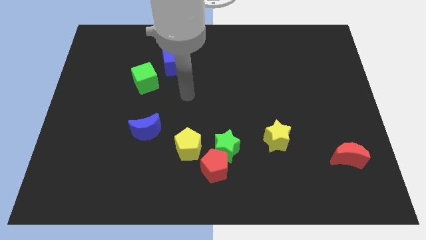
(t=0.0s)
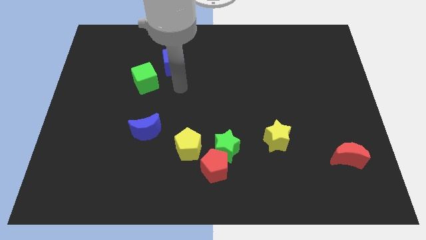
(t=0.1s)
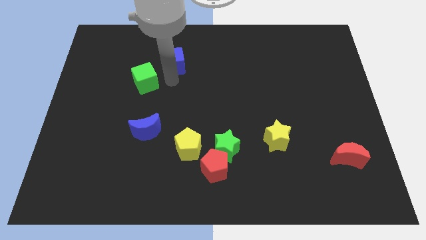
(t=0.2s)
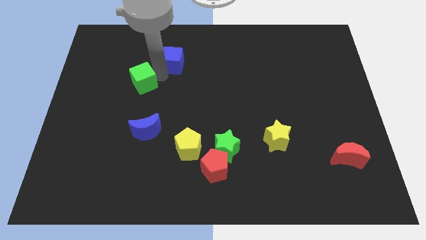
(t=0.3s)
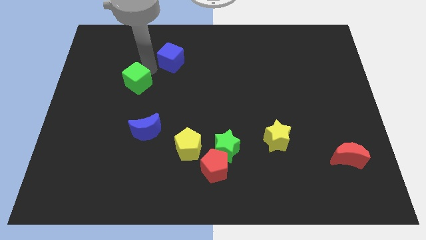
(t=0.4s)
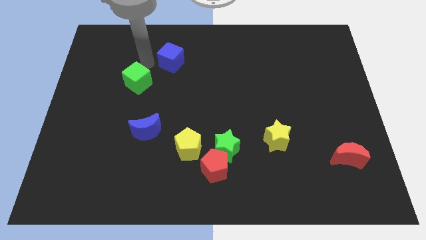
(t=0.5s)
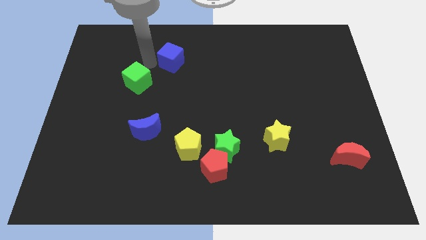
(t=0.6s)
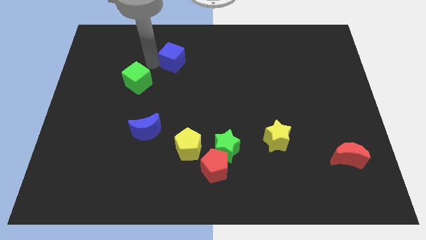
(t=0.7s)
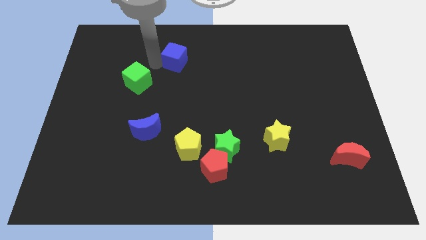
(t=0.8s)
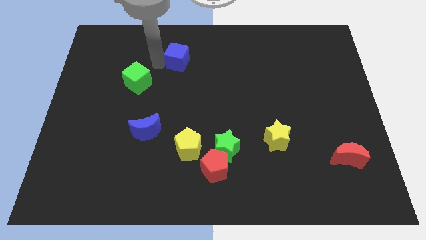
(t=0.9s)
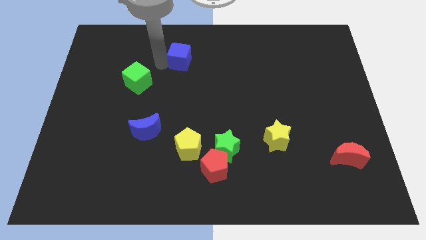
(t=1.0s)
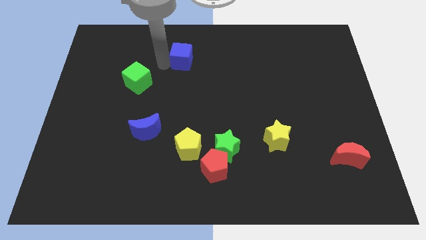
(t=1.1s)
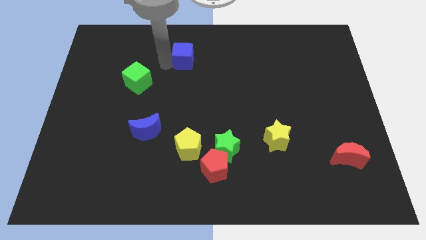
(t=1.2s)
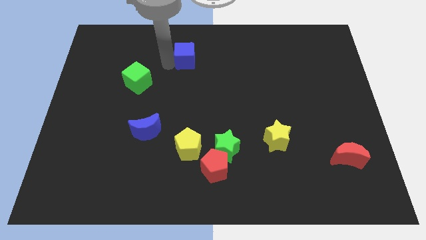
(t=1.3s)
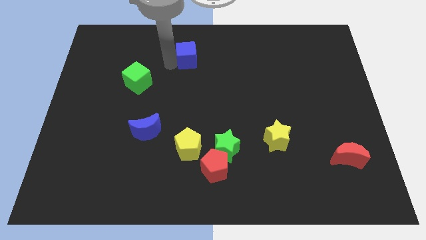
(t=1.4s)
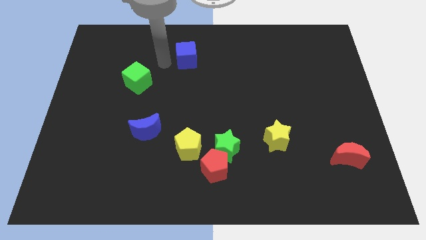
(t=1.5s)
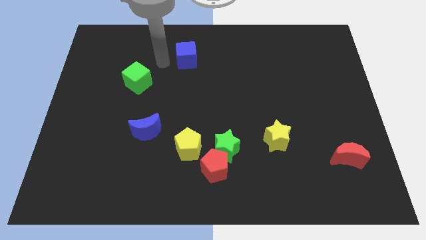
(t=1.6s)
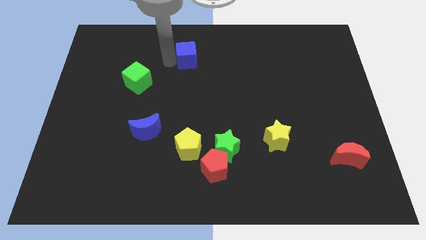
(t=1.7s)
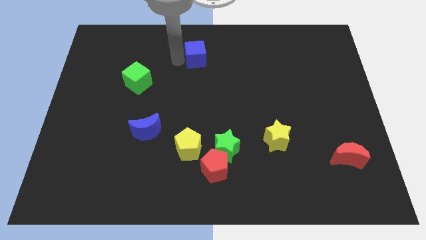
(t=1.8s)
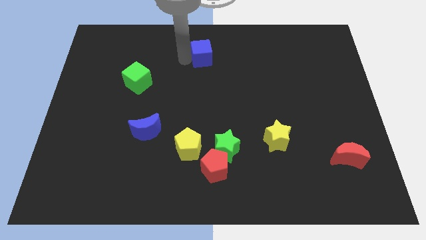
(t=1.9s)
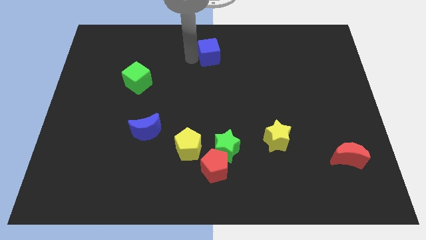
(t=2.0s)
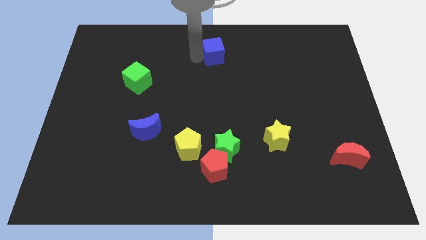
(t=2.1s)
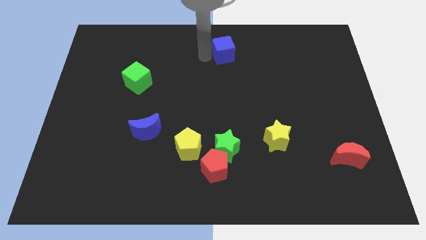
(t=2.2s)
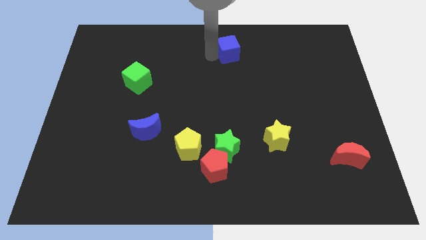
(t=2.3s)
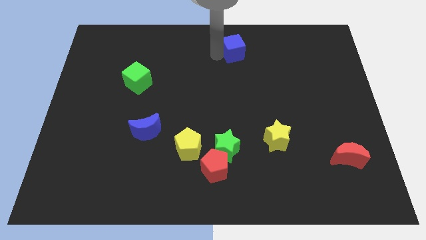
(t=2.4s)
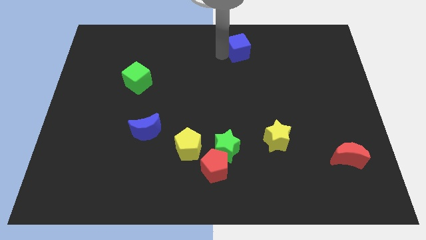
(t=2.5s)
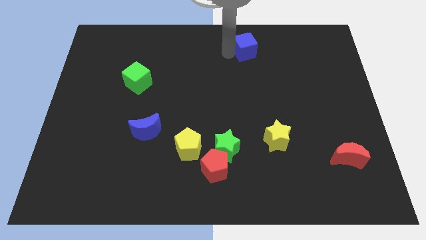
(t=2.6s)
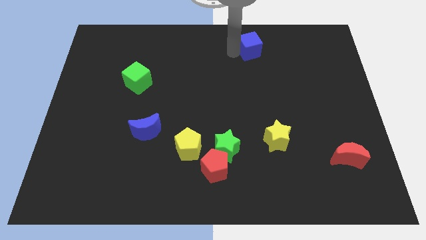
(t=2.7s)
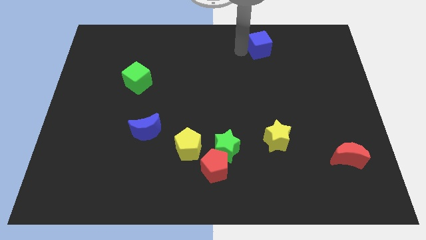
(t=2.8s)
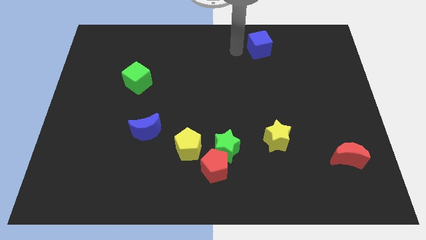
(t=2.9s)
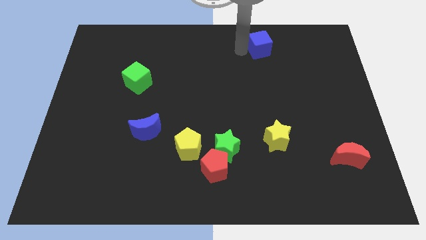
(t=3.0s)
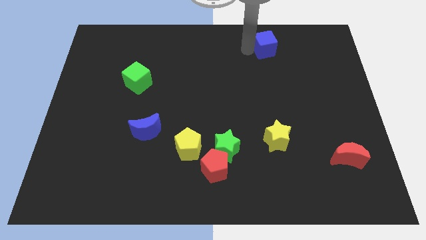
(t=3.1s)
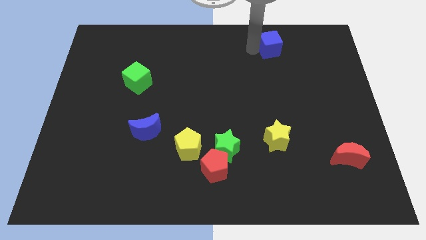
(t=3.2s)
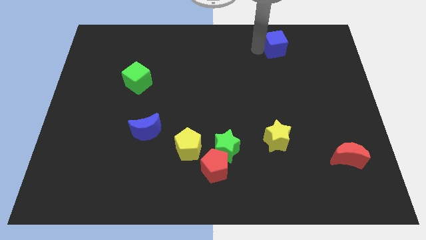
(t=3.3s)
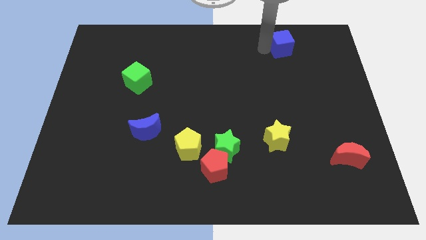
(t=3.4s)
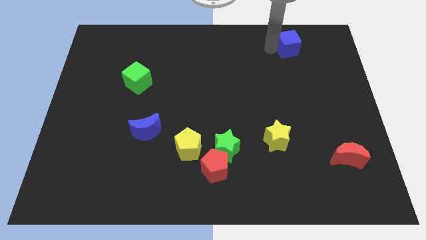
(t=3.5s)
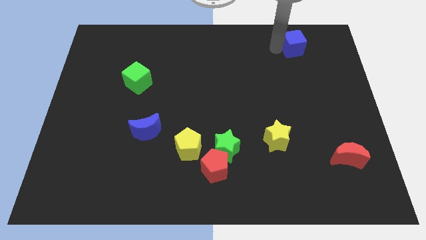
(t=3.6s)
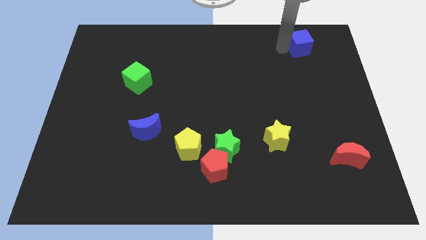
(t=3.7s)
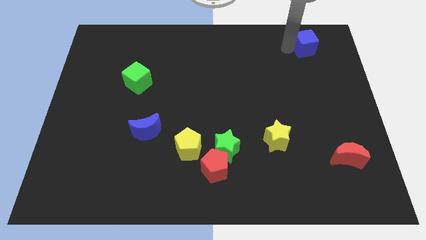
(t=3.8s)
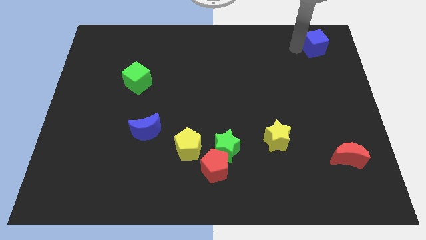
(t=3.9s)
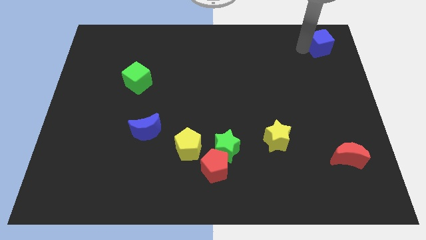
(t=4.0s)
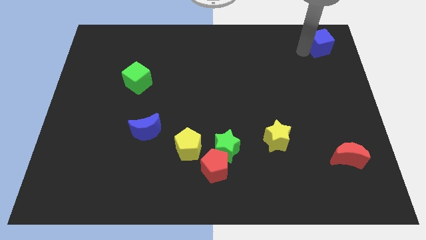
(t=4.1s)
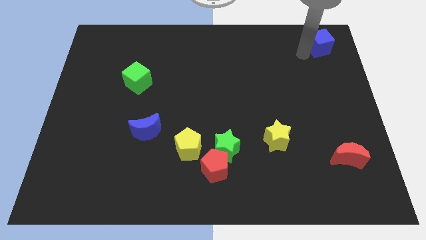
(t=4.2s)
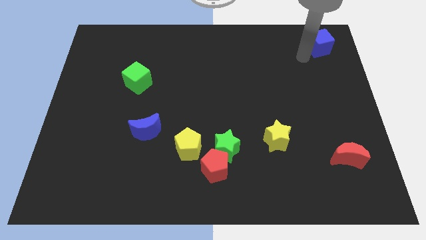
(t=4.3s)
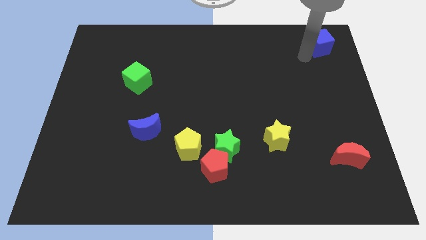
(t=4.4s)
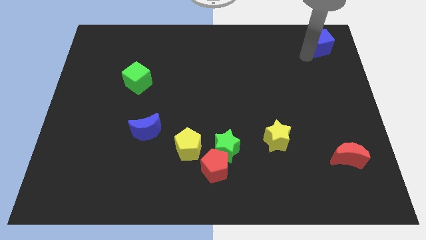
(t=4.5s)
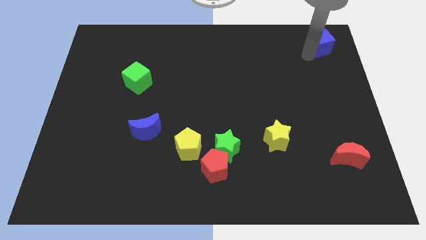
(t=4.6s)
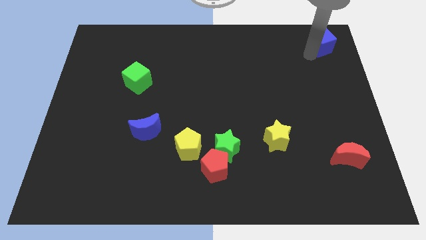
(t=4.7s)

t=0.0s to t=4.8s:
slide the blue cube to the top right of the board

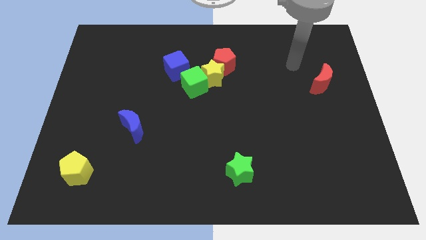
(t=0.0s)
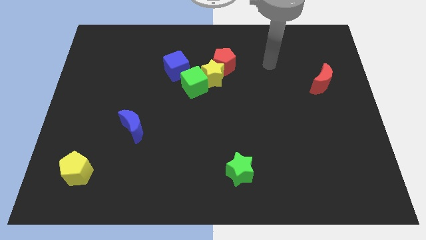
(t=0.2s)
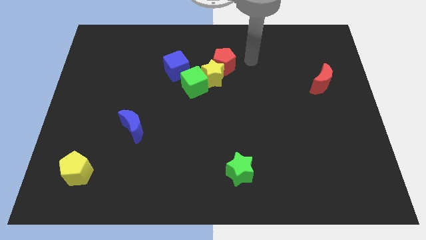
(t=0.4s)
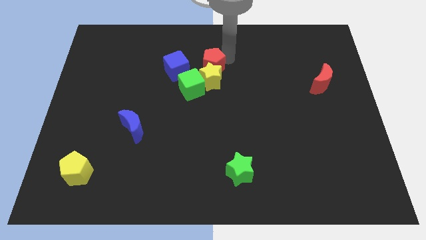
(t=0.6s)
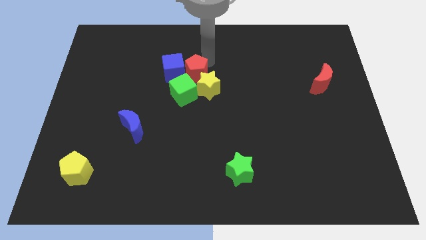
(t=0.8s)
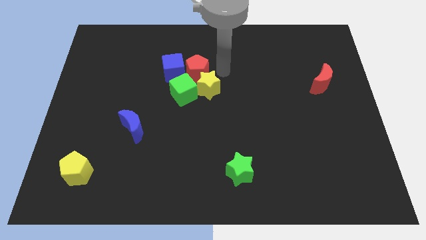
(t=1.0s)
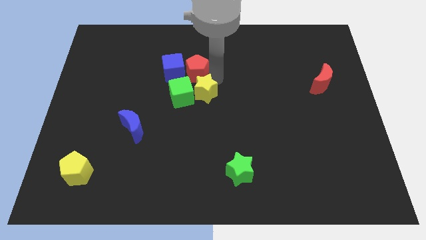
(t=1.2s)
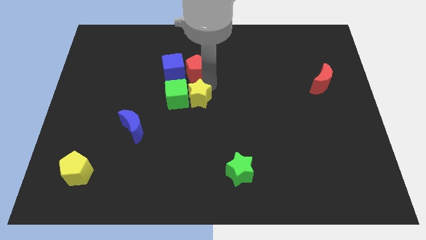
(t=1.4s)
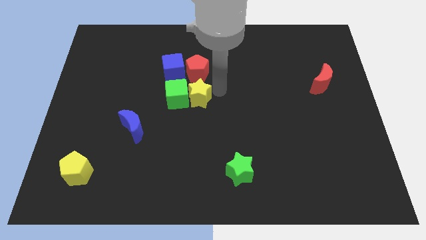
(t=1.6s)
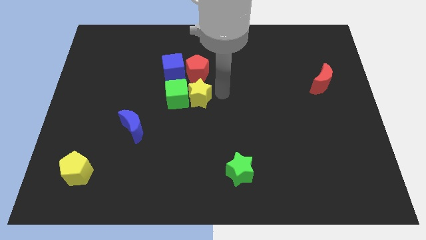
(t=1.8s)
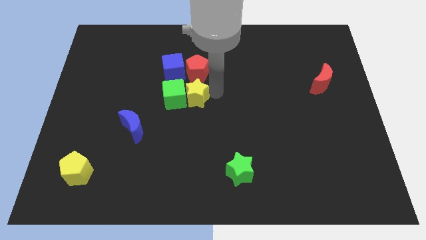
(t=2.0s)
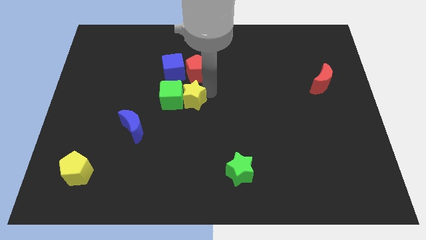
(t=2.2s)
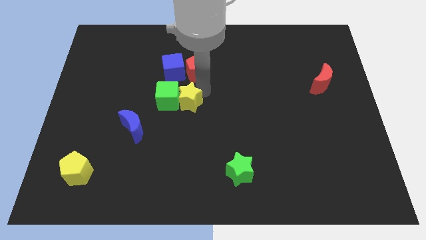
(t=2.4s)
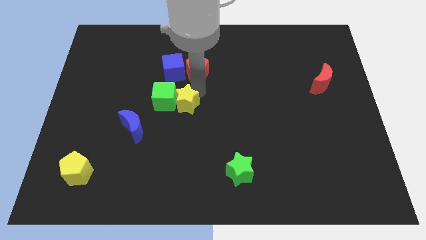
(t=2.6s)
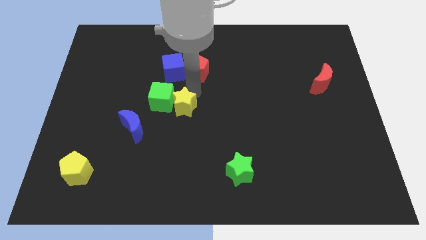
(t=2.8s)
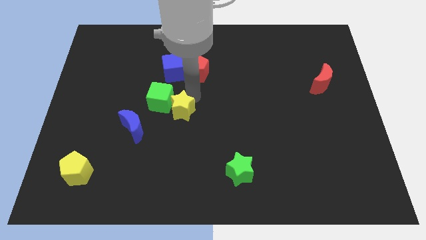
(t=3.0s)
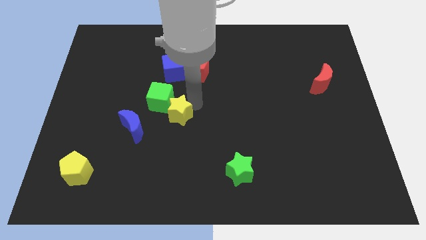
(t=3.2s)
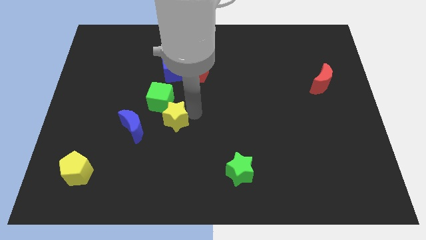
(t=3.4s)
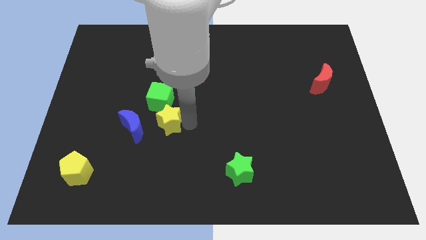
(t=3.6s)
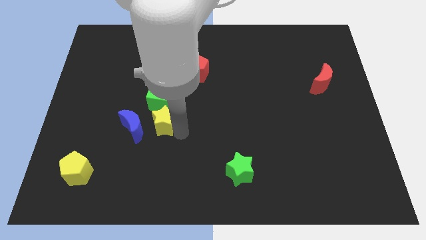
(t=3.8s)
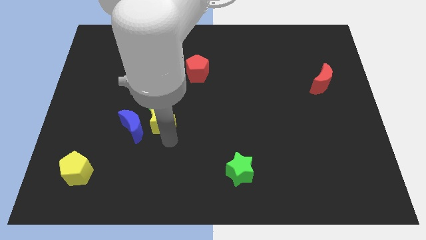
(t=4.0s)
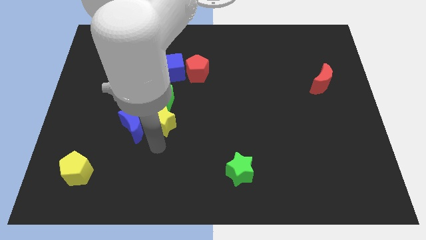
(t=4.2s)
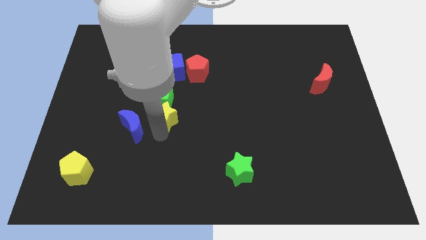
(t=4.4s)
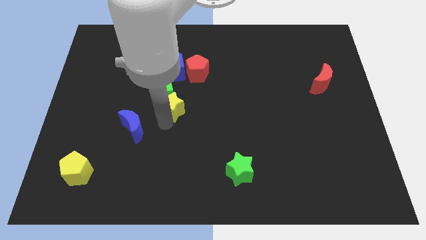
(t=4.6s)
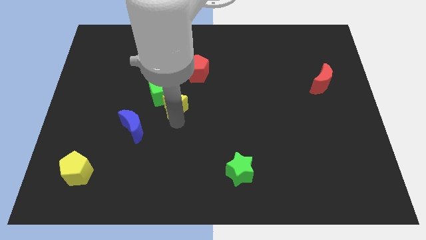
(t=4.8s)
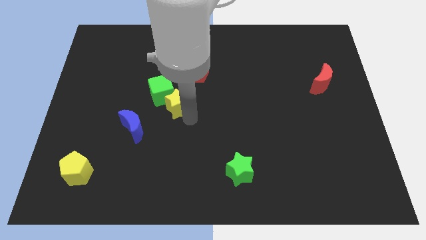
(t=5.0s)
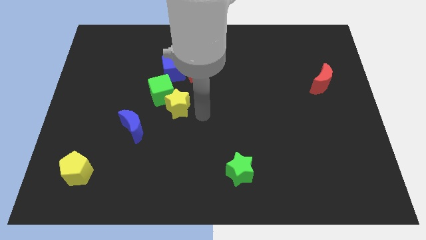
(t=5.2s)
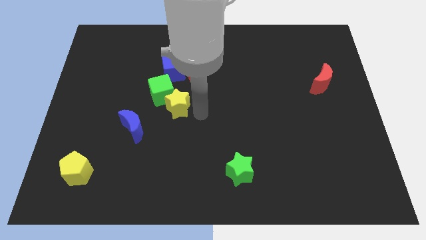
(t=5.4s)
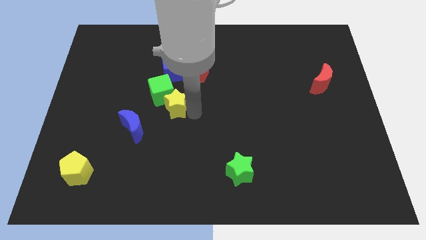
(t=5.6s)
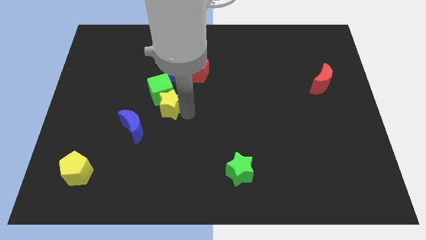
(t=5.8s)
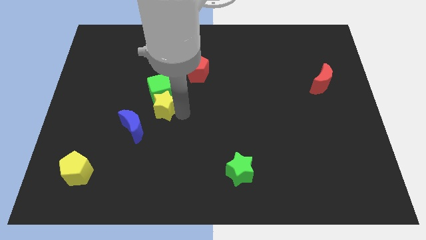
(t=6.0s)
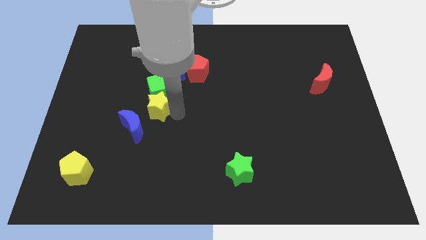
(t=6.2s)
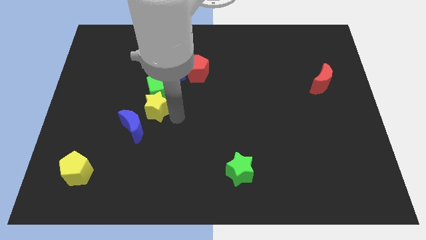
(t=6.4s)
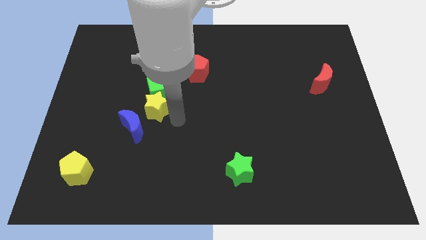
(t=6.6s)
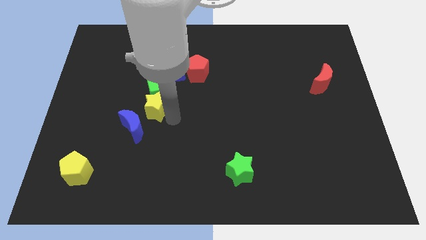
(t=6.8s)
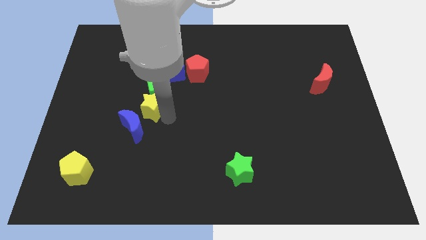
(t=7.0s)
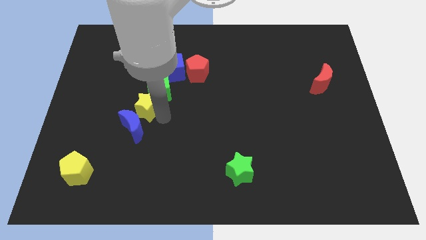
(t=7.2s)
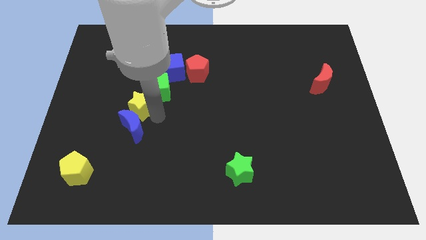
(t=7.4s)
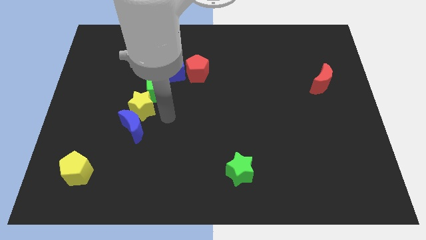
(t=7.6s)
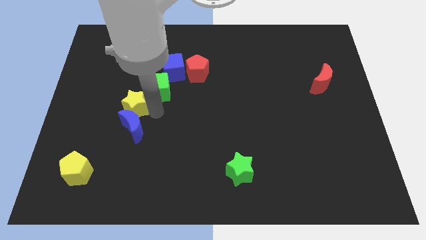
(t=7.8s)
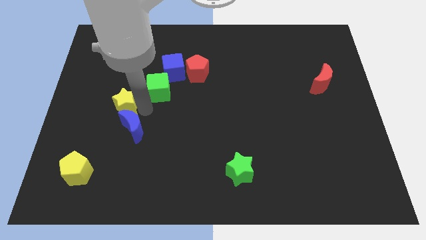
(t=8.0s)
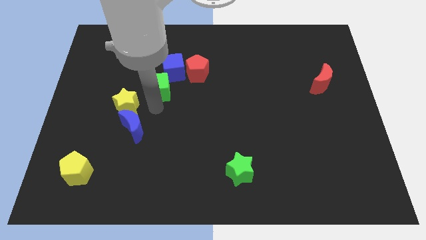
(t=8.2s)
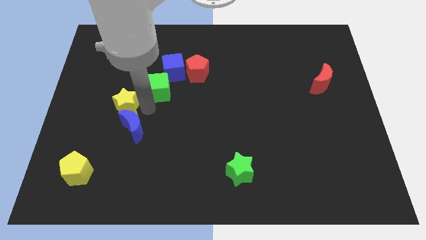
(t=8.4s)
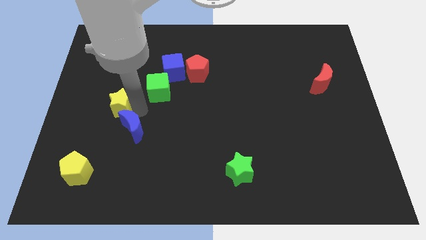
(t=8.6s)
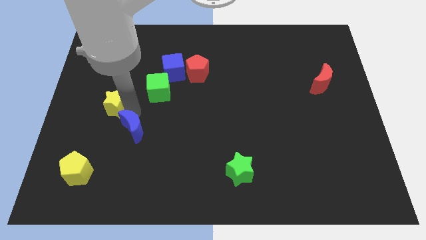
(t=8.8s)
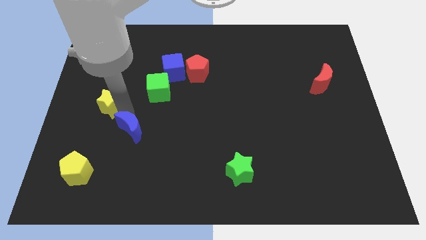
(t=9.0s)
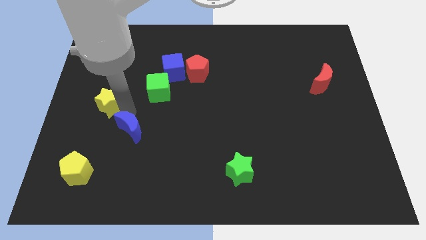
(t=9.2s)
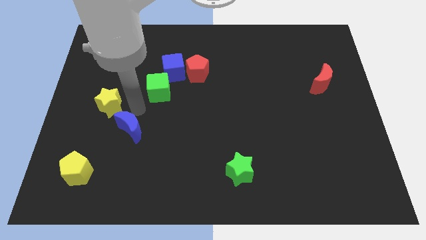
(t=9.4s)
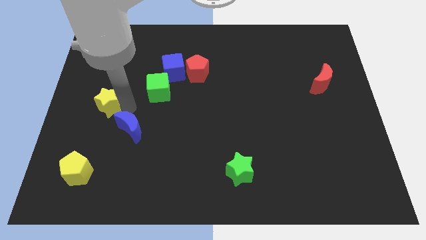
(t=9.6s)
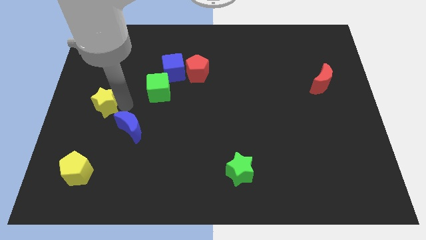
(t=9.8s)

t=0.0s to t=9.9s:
slide the yellow star to the left side
